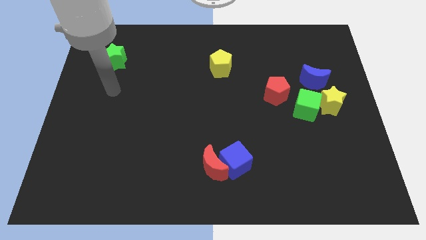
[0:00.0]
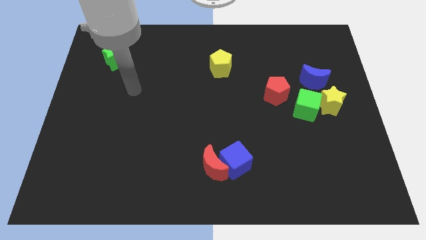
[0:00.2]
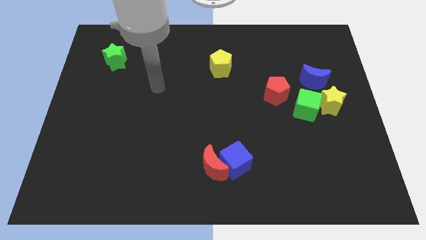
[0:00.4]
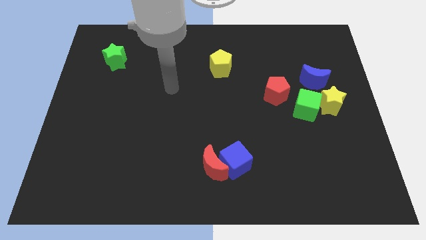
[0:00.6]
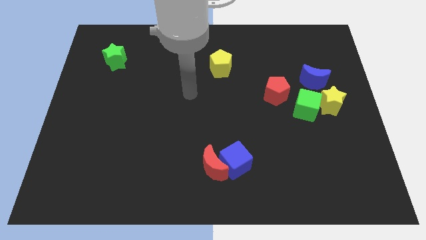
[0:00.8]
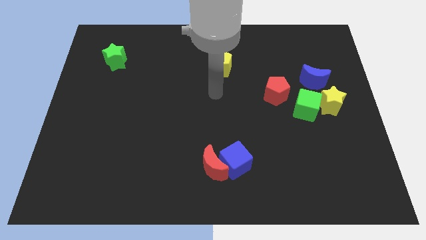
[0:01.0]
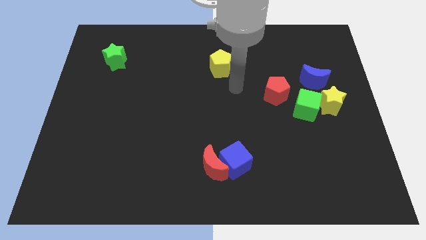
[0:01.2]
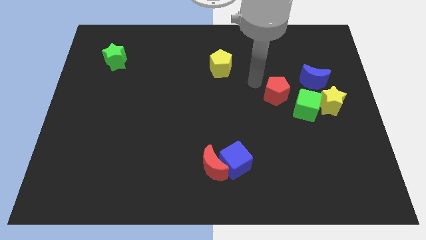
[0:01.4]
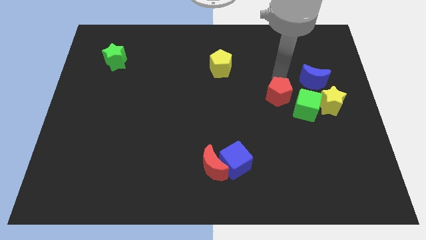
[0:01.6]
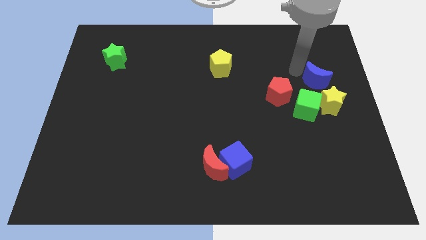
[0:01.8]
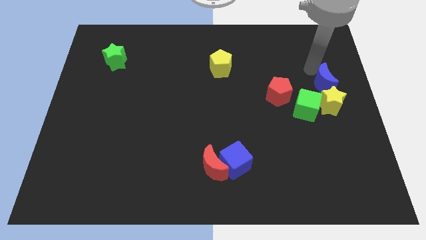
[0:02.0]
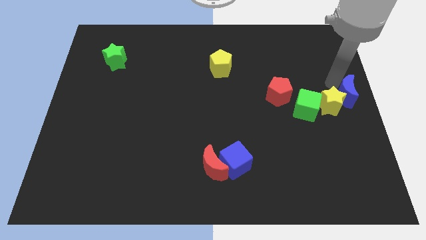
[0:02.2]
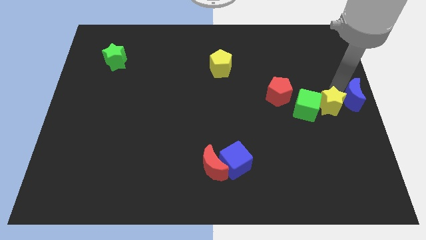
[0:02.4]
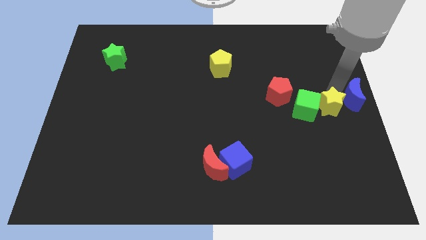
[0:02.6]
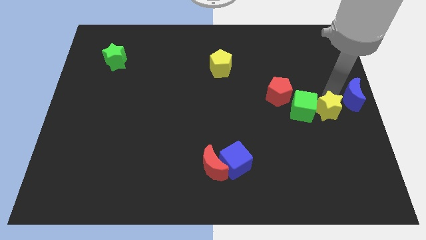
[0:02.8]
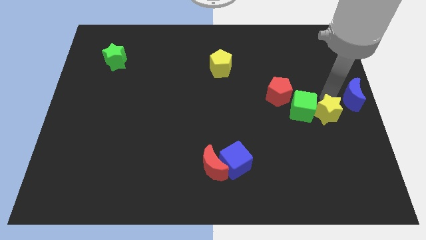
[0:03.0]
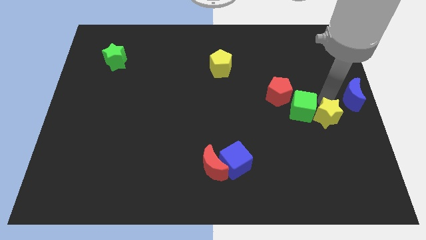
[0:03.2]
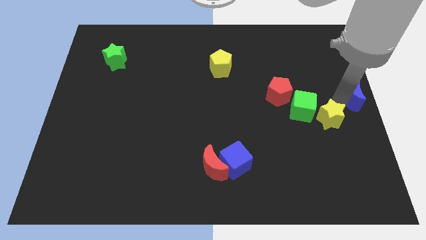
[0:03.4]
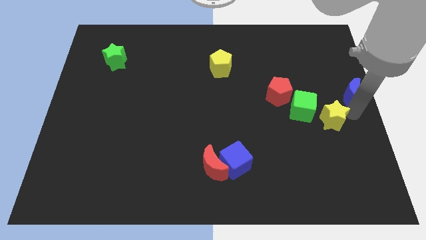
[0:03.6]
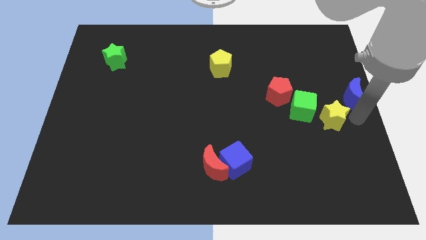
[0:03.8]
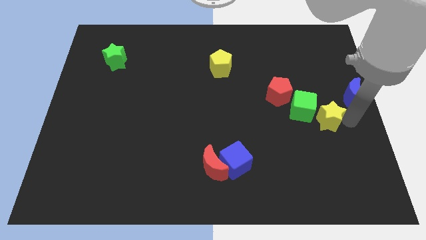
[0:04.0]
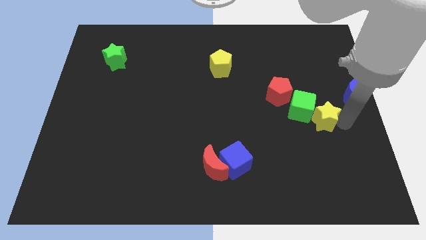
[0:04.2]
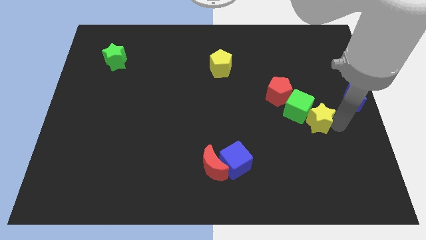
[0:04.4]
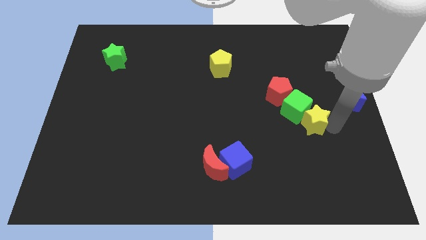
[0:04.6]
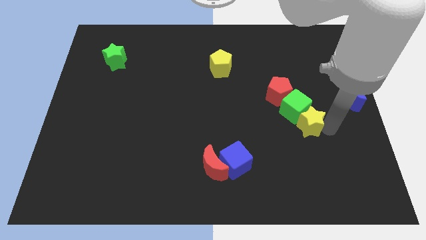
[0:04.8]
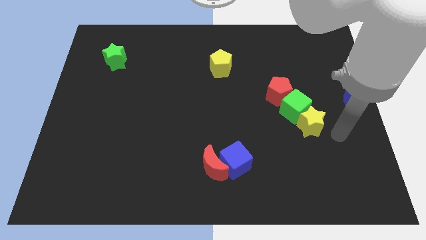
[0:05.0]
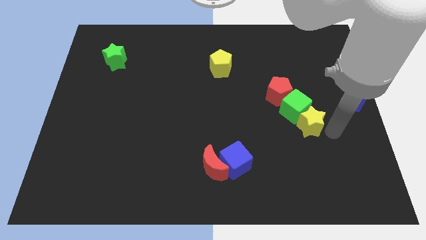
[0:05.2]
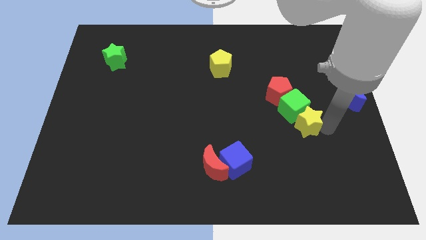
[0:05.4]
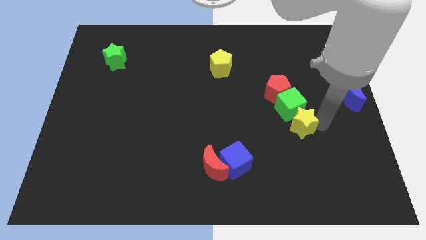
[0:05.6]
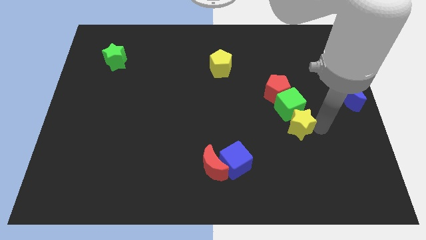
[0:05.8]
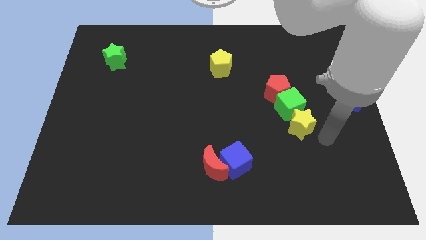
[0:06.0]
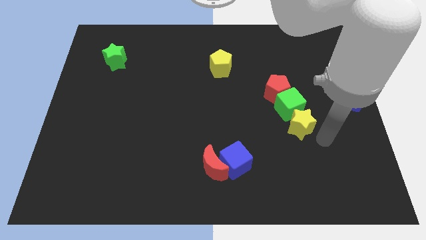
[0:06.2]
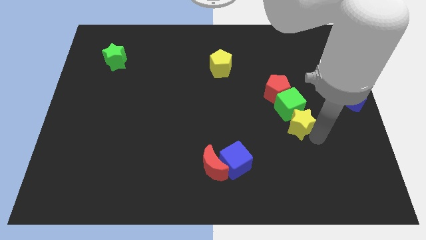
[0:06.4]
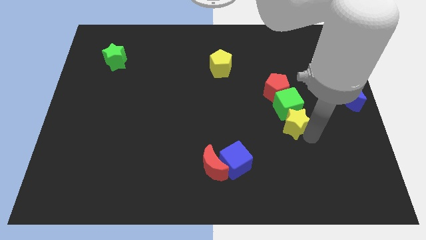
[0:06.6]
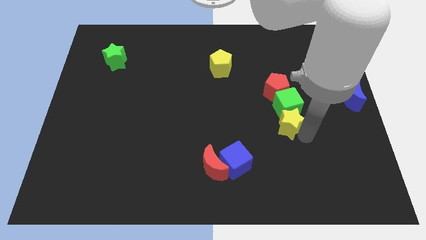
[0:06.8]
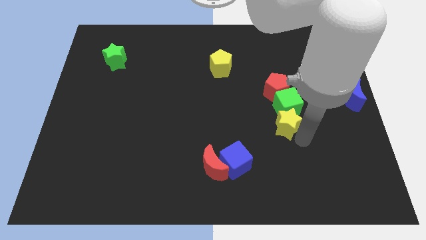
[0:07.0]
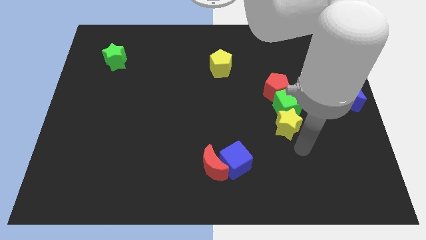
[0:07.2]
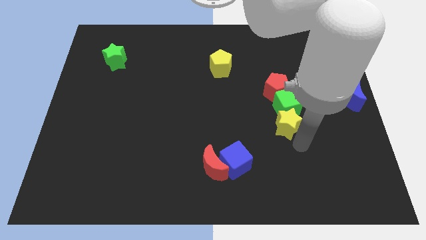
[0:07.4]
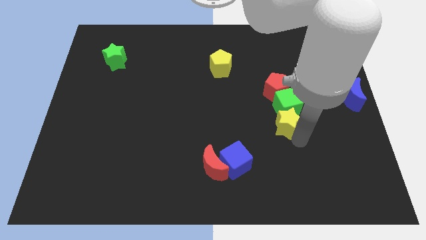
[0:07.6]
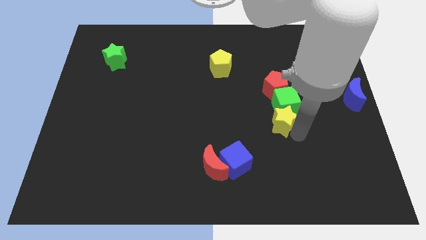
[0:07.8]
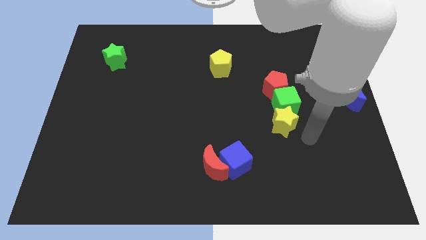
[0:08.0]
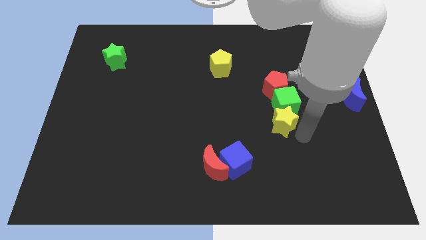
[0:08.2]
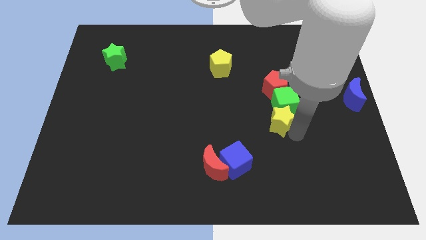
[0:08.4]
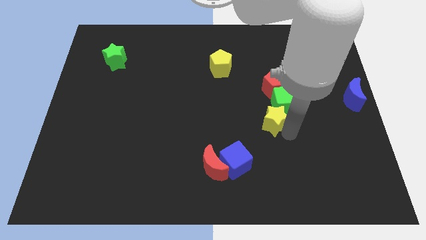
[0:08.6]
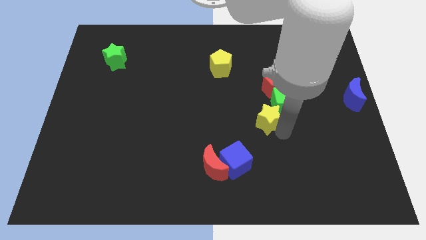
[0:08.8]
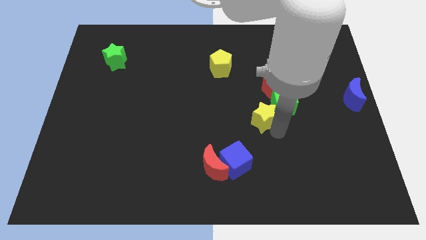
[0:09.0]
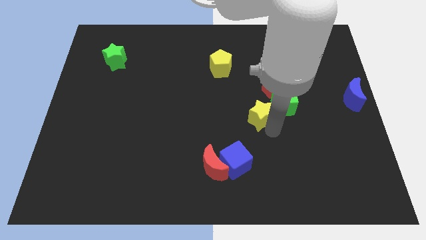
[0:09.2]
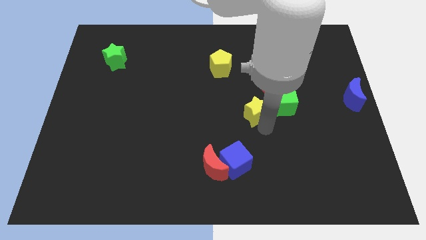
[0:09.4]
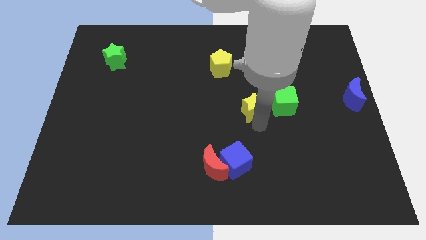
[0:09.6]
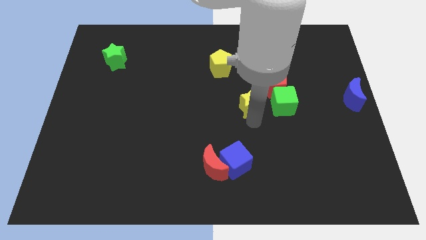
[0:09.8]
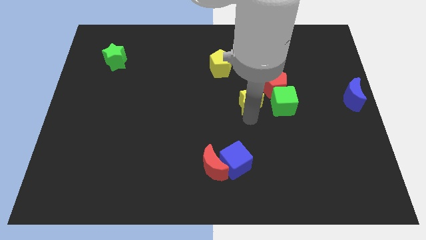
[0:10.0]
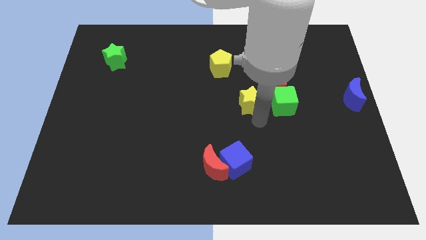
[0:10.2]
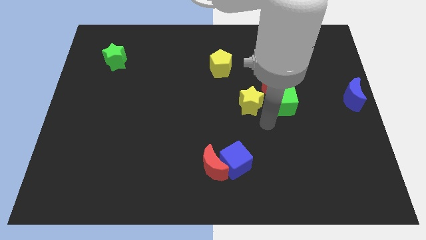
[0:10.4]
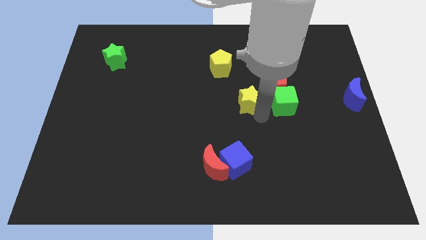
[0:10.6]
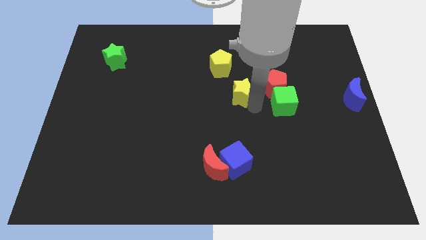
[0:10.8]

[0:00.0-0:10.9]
slide the yellow star below the yellow pentagon
